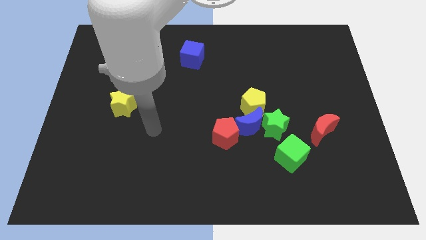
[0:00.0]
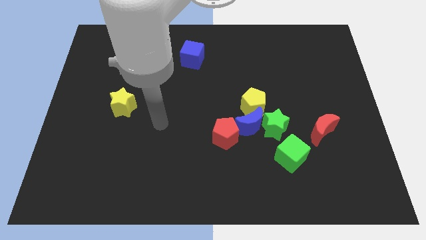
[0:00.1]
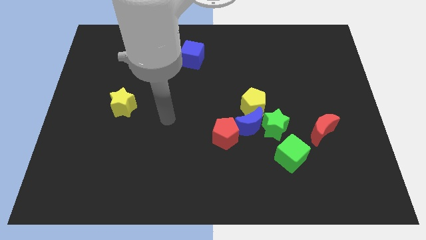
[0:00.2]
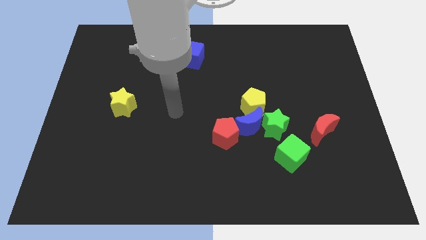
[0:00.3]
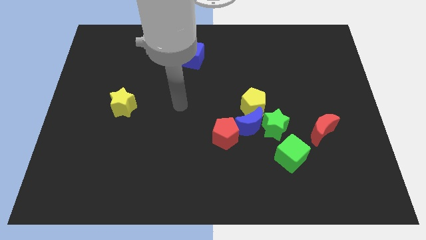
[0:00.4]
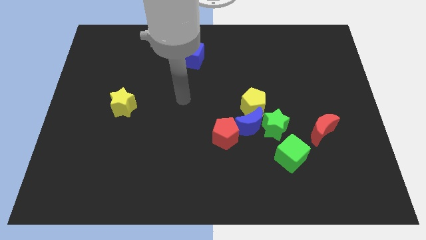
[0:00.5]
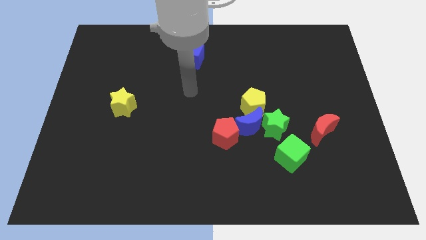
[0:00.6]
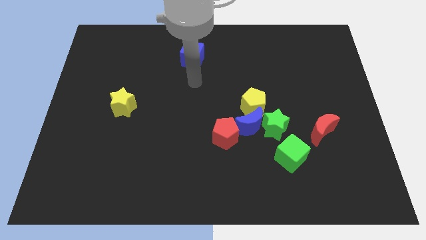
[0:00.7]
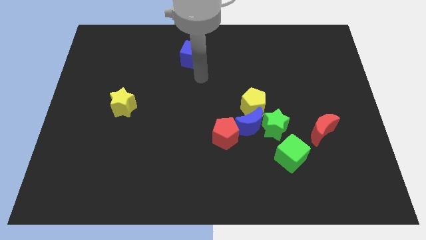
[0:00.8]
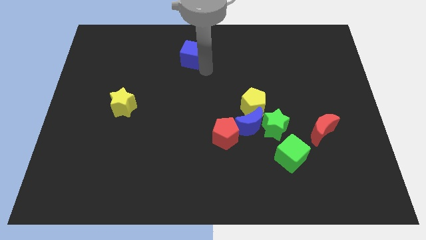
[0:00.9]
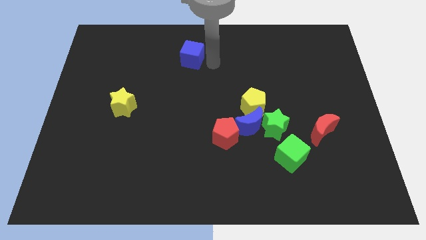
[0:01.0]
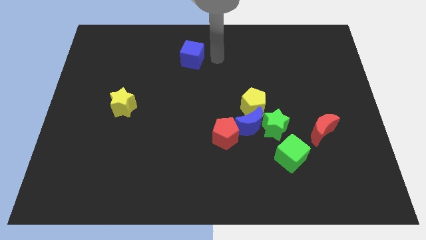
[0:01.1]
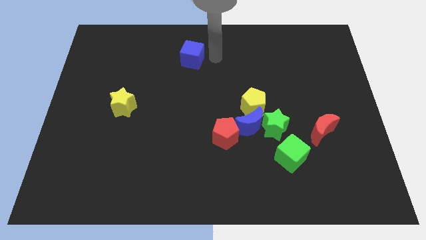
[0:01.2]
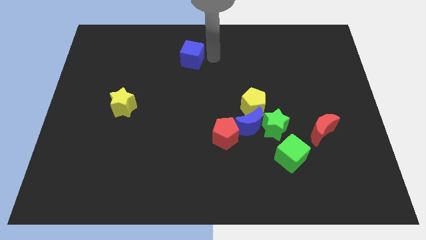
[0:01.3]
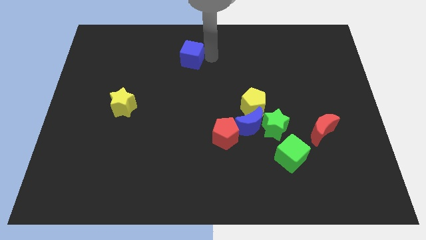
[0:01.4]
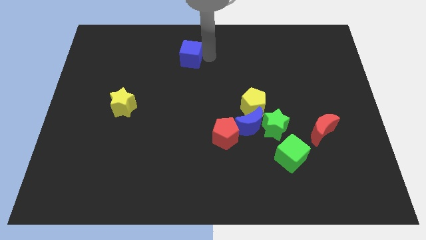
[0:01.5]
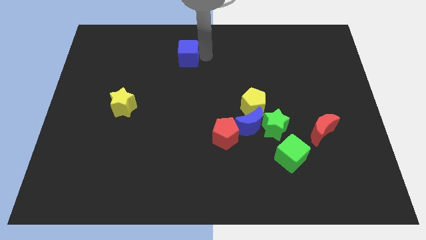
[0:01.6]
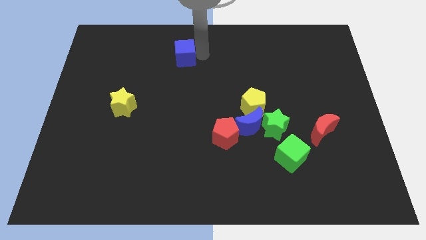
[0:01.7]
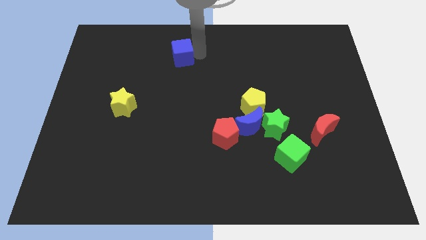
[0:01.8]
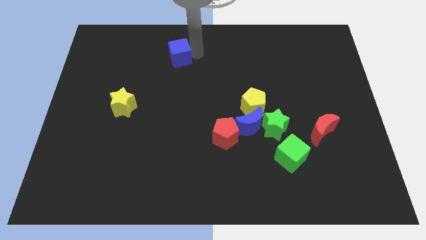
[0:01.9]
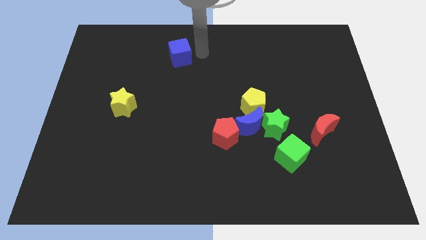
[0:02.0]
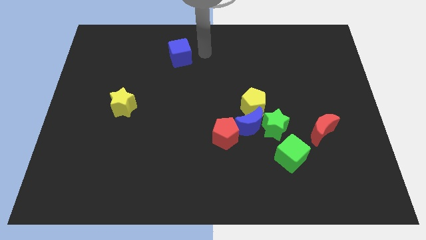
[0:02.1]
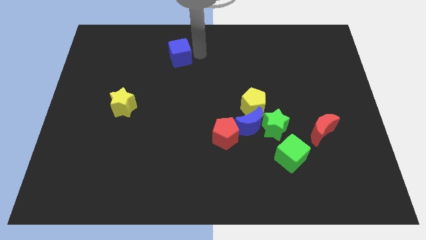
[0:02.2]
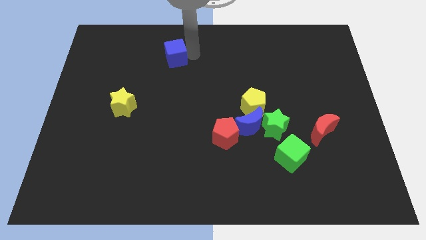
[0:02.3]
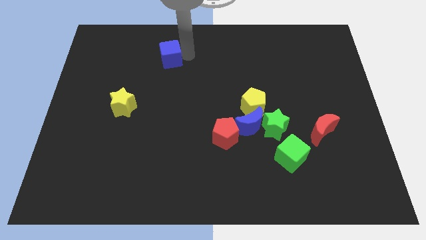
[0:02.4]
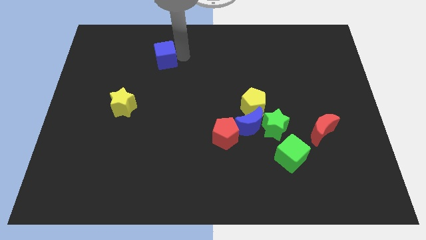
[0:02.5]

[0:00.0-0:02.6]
slightly slide the blue cube left

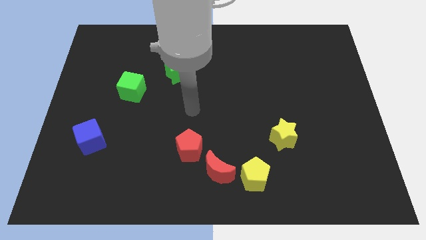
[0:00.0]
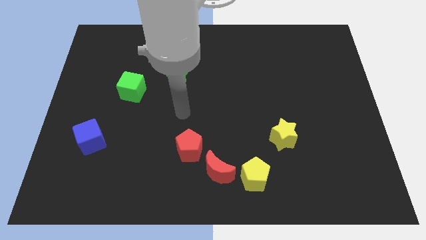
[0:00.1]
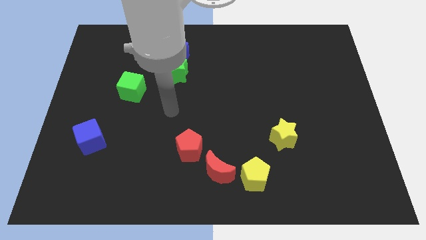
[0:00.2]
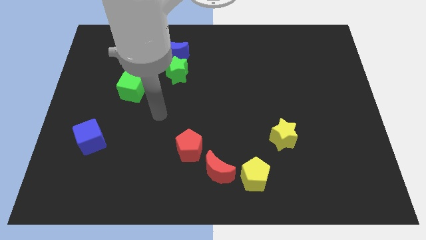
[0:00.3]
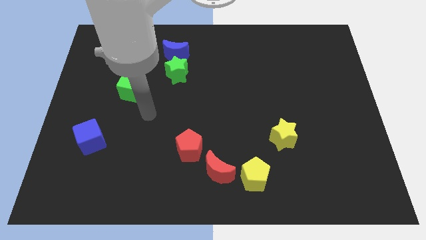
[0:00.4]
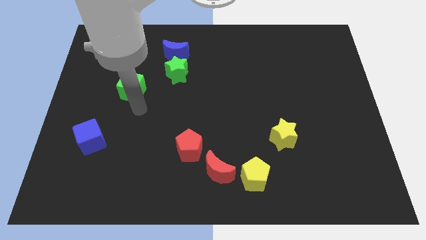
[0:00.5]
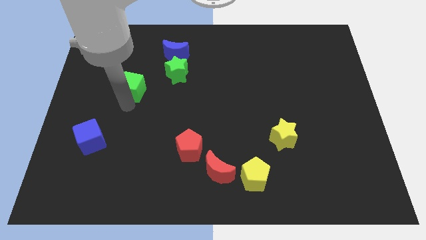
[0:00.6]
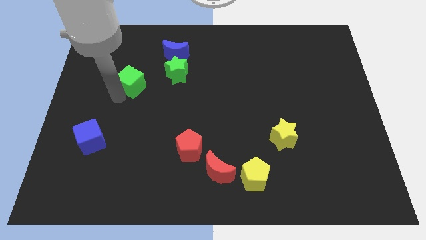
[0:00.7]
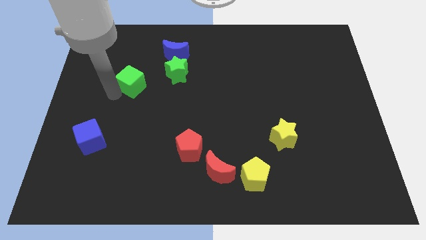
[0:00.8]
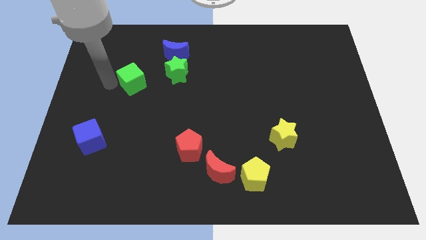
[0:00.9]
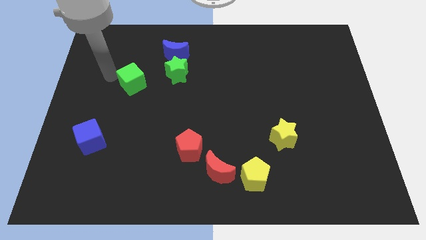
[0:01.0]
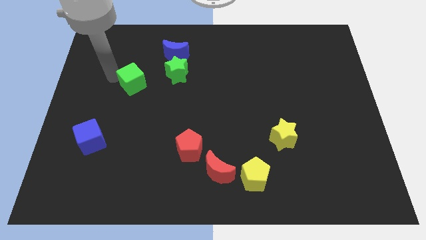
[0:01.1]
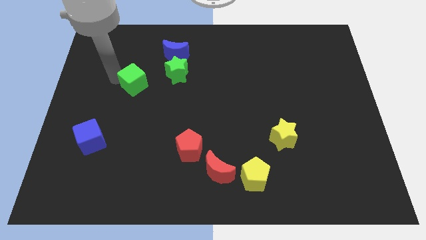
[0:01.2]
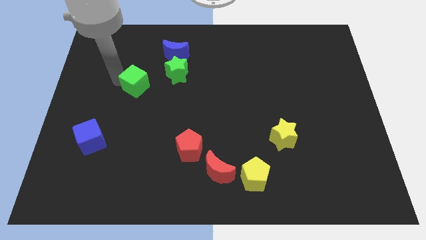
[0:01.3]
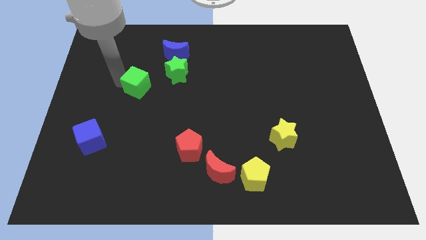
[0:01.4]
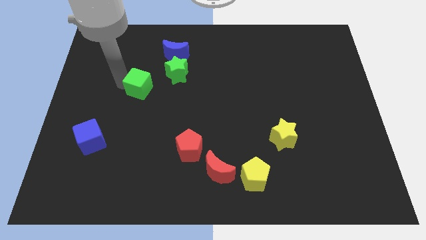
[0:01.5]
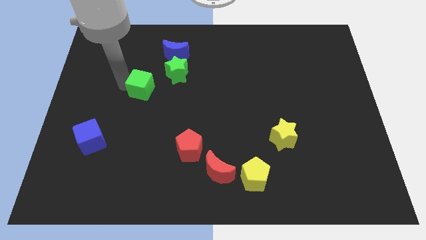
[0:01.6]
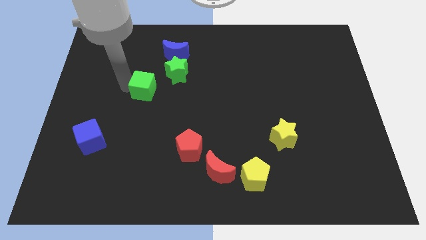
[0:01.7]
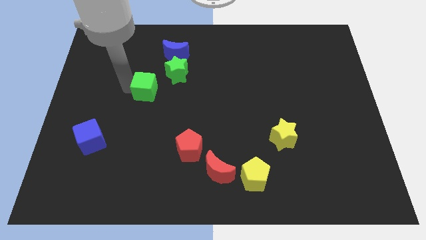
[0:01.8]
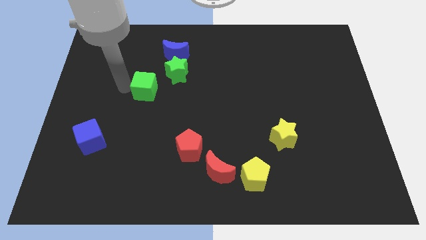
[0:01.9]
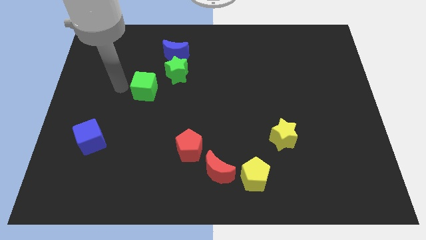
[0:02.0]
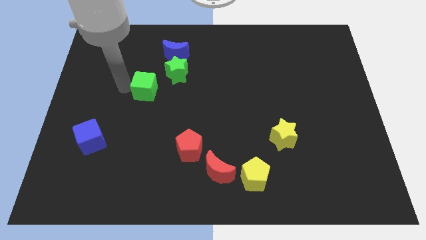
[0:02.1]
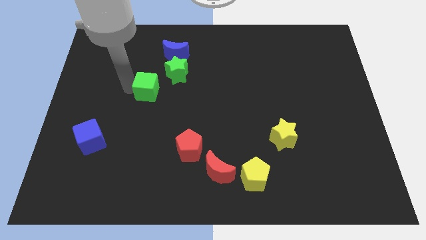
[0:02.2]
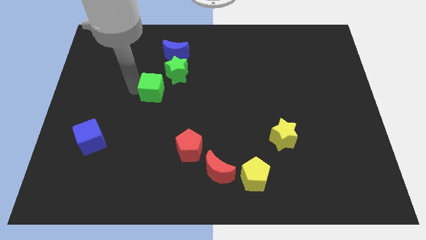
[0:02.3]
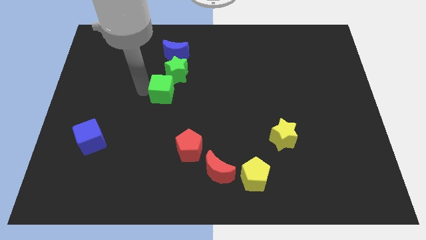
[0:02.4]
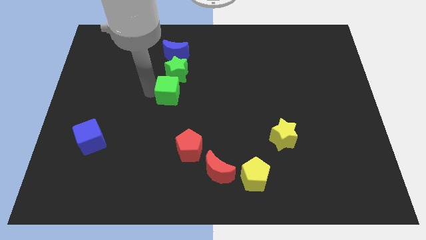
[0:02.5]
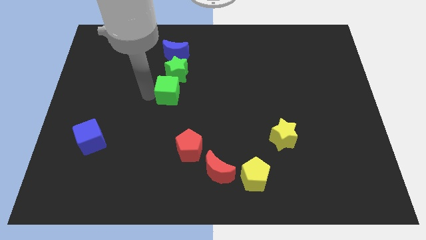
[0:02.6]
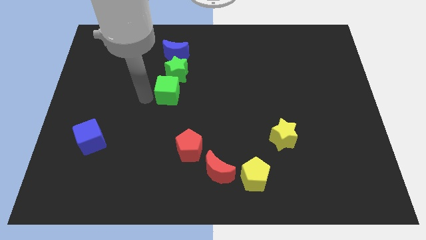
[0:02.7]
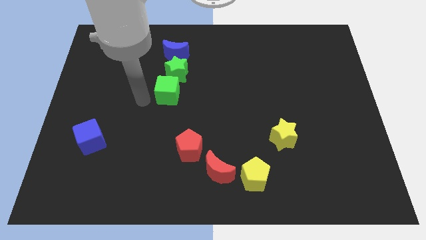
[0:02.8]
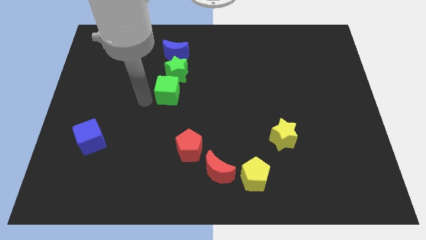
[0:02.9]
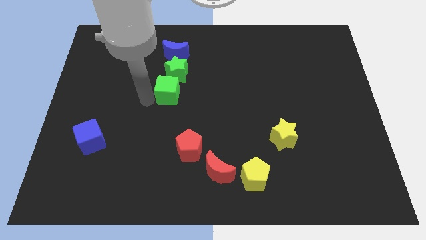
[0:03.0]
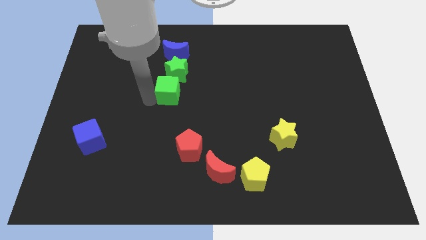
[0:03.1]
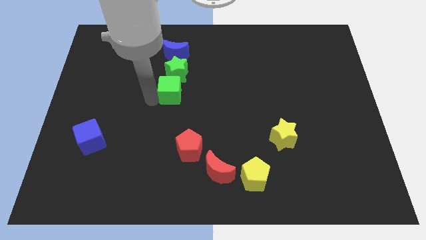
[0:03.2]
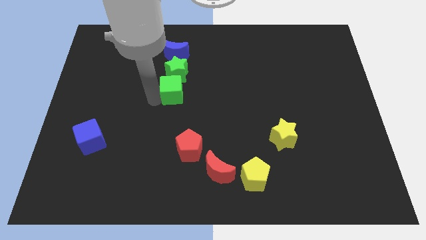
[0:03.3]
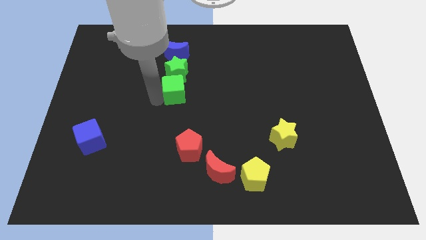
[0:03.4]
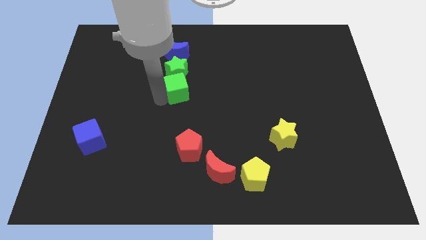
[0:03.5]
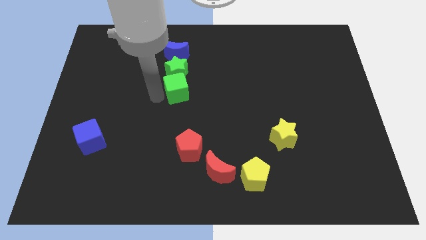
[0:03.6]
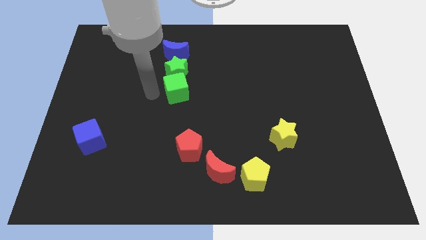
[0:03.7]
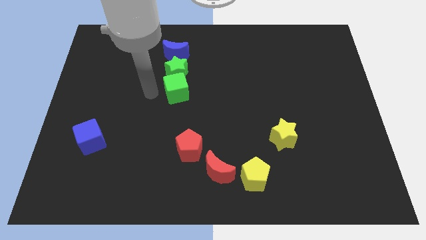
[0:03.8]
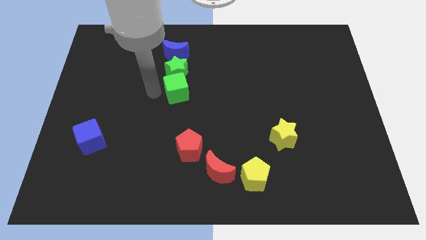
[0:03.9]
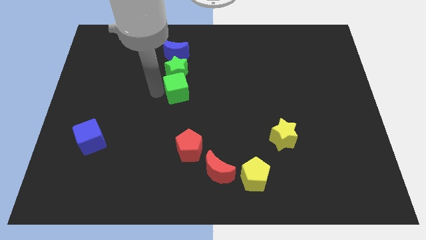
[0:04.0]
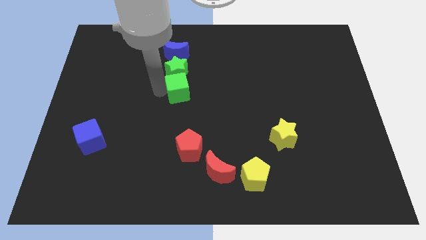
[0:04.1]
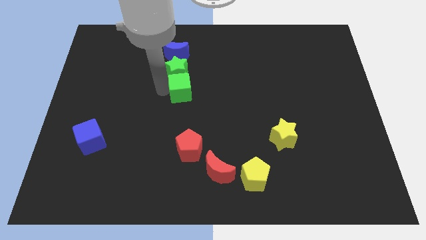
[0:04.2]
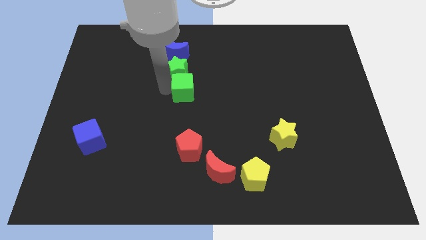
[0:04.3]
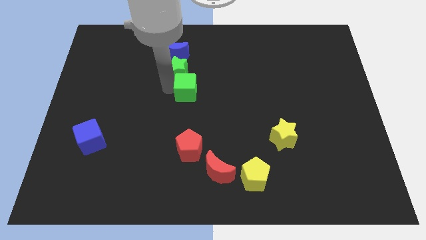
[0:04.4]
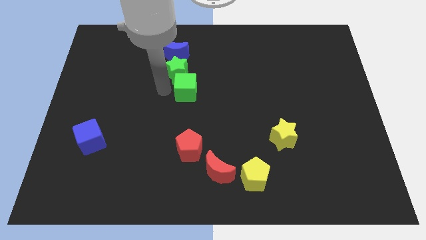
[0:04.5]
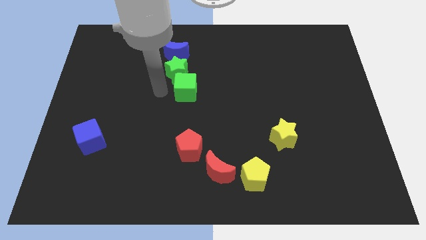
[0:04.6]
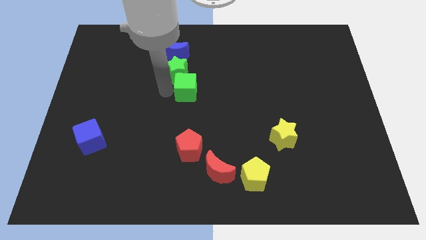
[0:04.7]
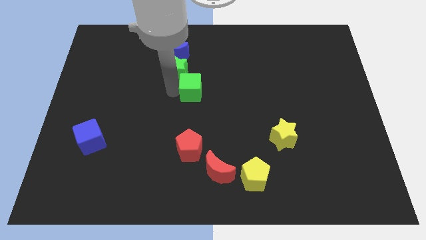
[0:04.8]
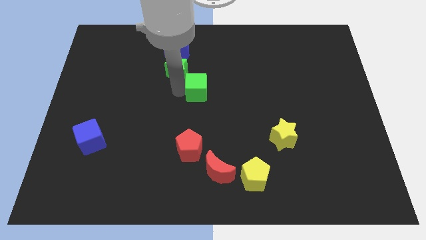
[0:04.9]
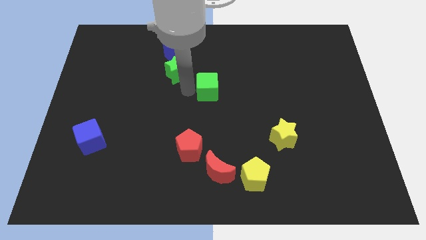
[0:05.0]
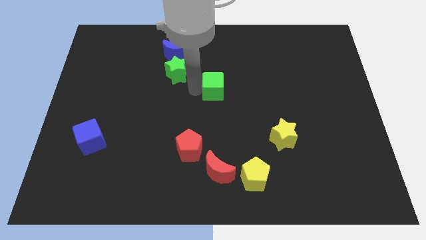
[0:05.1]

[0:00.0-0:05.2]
push the green cube to the right

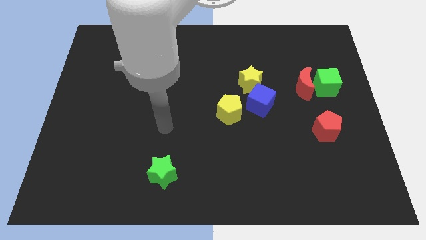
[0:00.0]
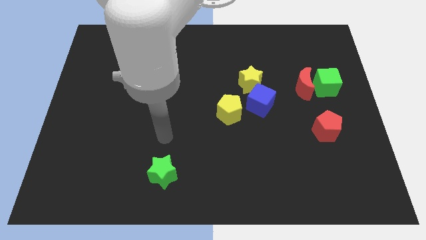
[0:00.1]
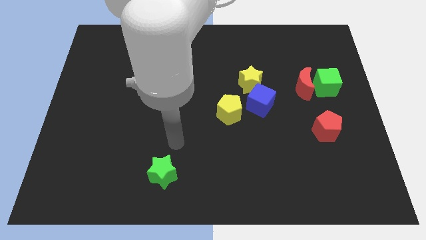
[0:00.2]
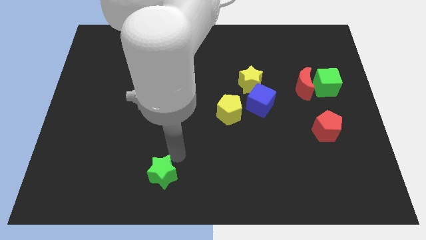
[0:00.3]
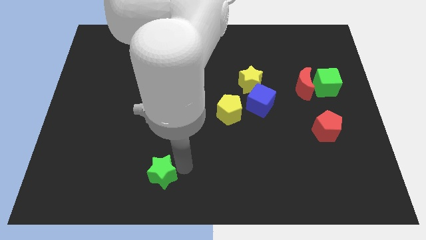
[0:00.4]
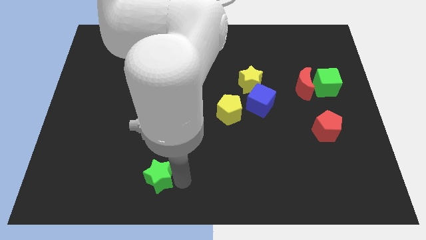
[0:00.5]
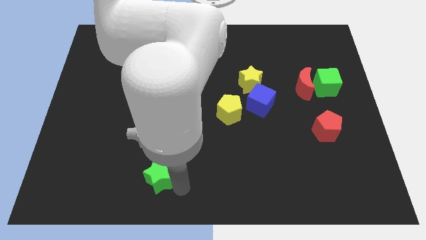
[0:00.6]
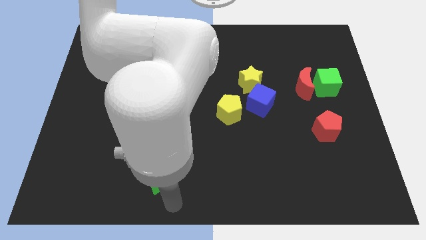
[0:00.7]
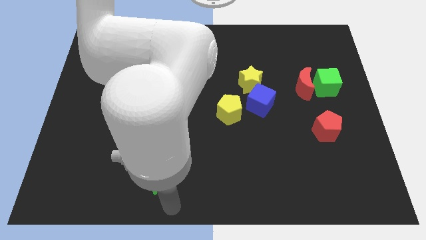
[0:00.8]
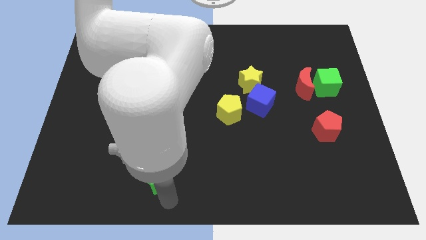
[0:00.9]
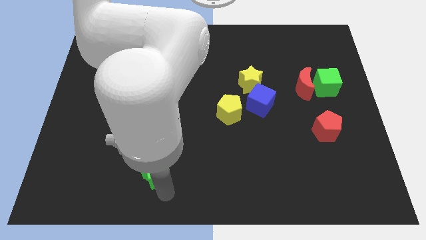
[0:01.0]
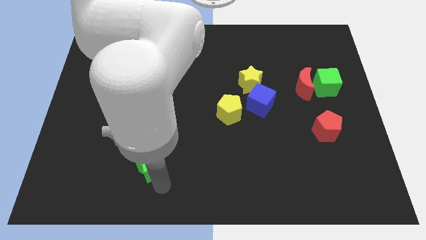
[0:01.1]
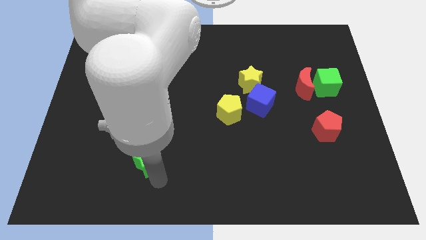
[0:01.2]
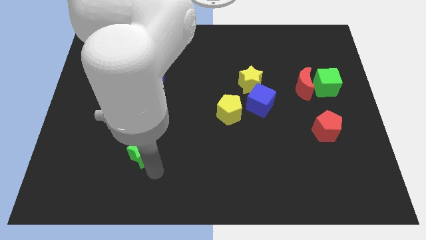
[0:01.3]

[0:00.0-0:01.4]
slightly move the green star up and then left
